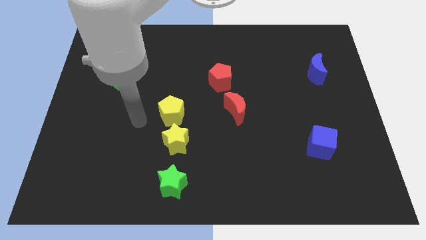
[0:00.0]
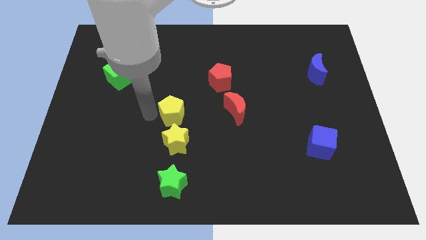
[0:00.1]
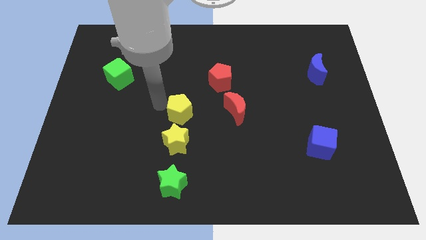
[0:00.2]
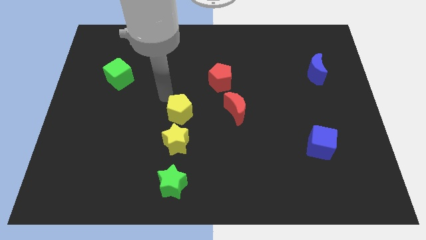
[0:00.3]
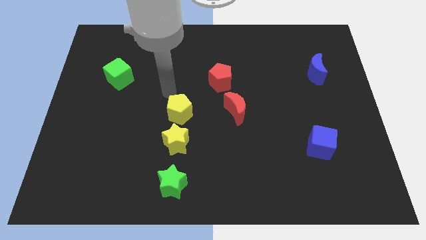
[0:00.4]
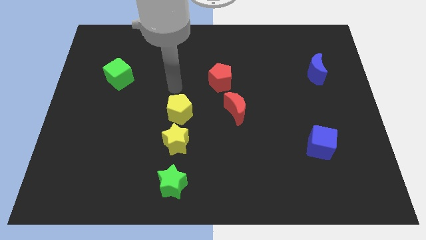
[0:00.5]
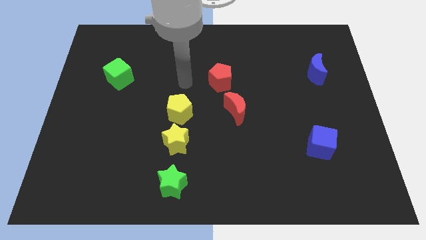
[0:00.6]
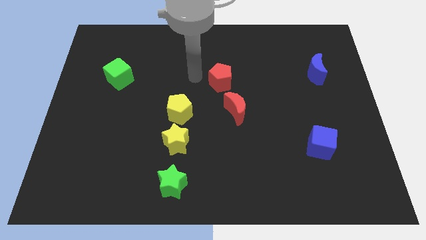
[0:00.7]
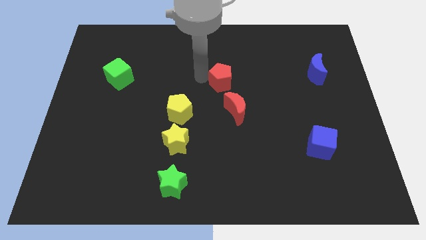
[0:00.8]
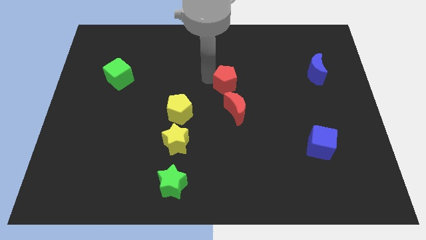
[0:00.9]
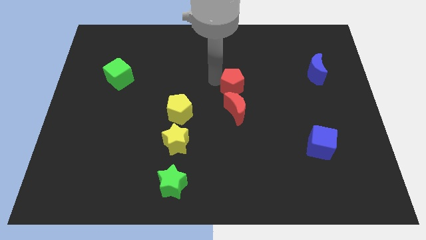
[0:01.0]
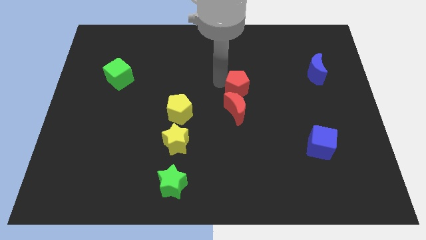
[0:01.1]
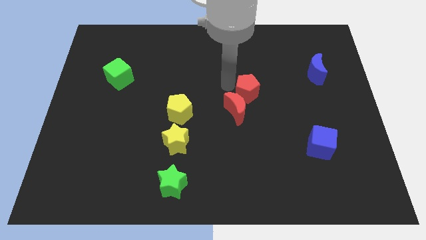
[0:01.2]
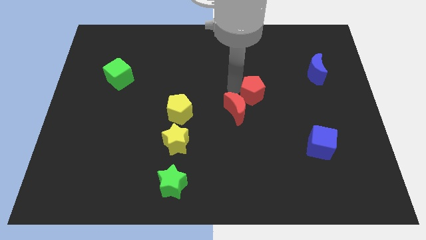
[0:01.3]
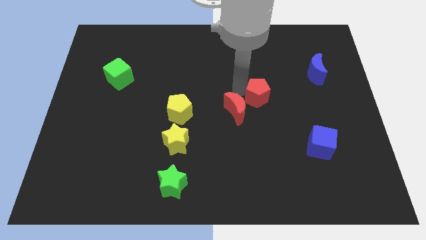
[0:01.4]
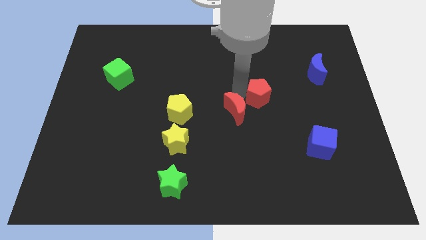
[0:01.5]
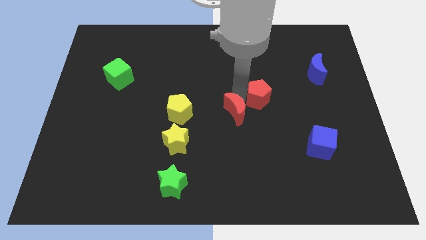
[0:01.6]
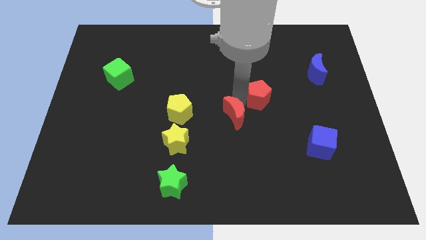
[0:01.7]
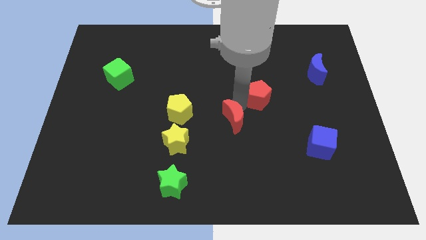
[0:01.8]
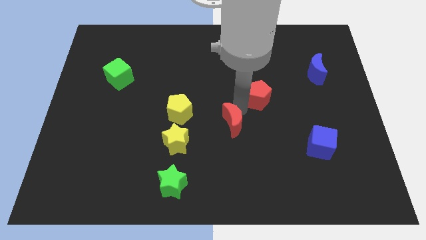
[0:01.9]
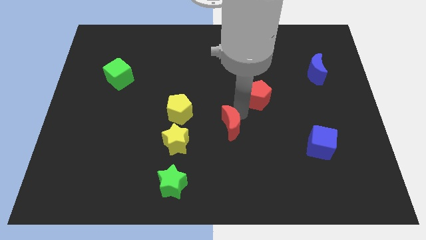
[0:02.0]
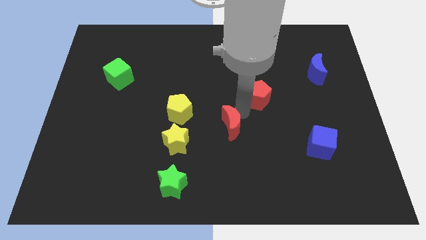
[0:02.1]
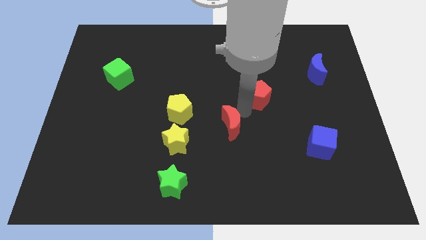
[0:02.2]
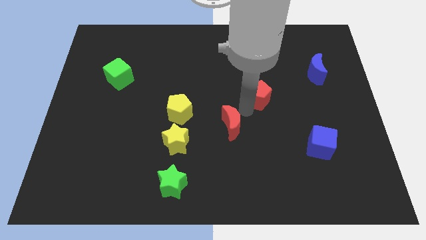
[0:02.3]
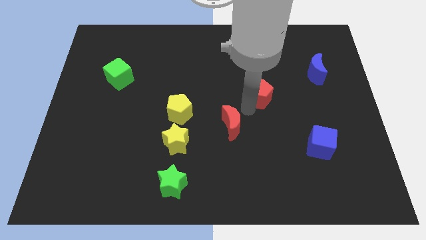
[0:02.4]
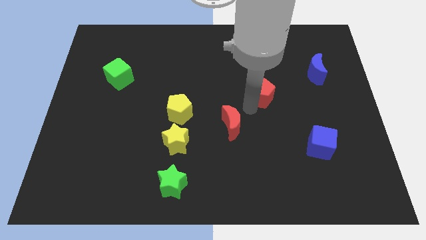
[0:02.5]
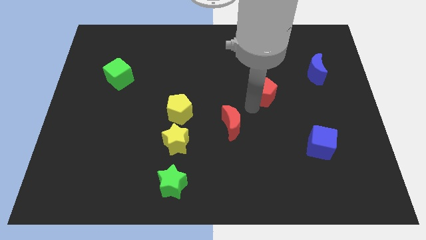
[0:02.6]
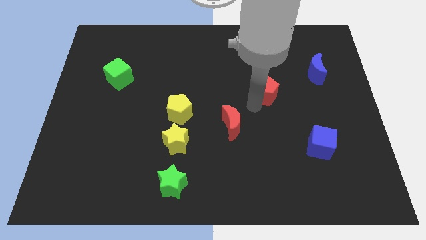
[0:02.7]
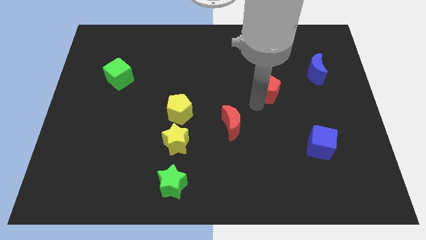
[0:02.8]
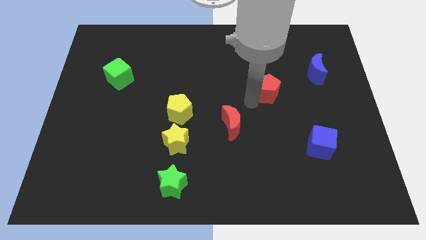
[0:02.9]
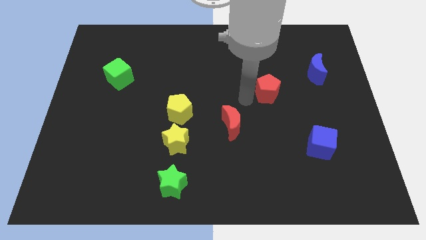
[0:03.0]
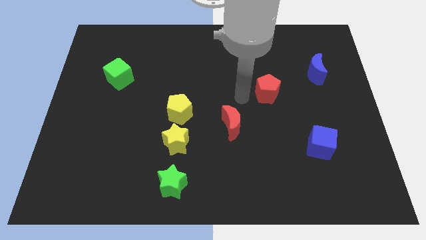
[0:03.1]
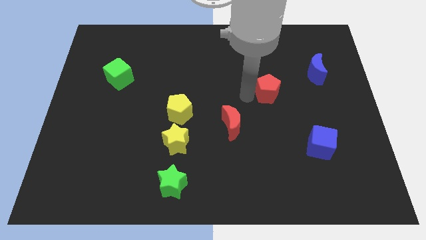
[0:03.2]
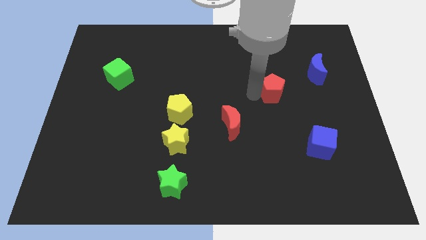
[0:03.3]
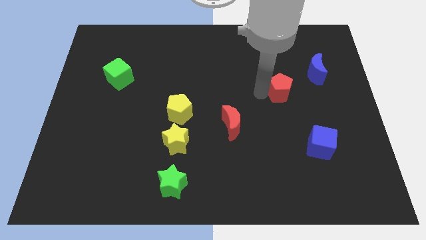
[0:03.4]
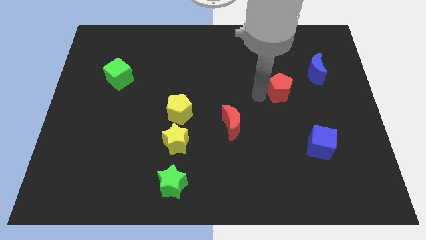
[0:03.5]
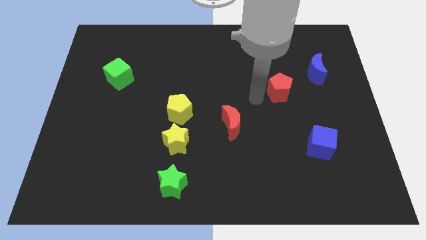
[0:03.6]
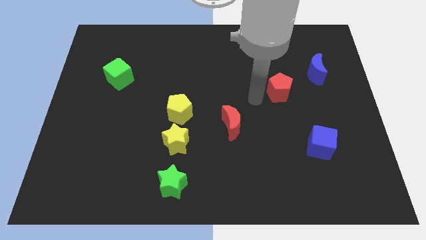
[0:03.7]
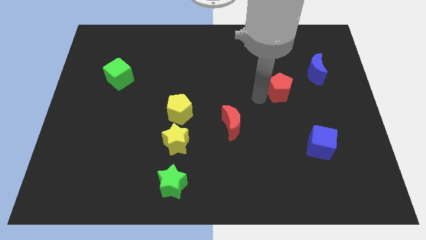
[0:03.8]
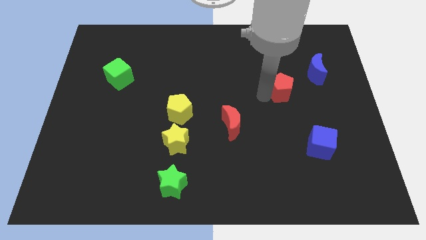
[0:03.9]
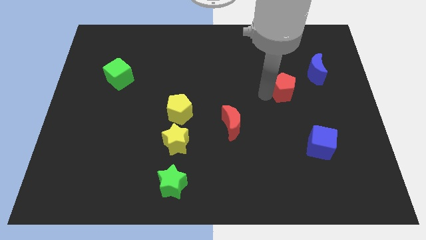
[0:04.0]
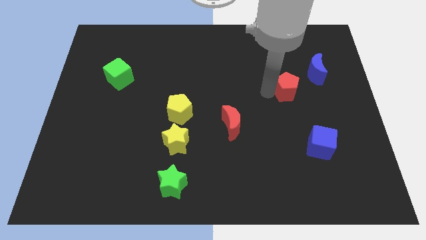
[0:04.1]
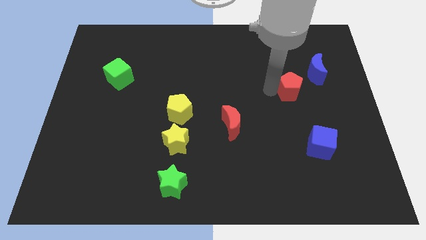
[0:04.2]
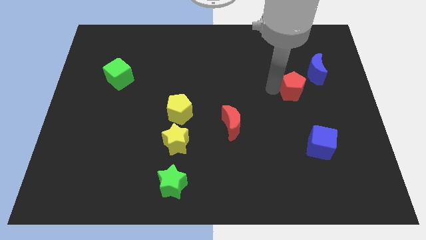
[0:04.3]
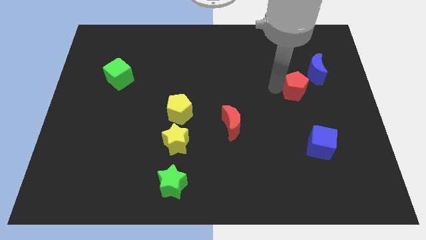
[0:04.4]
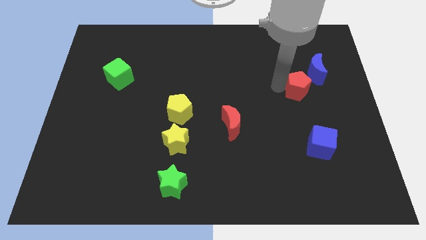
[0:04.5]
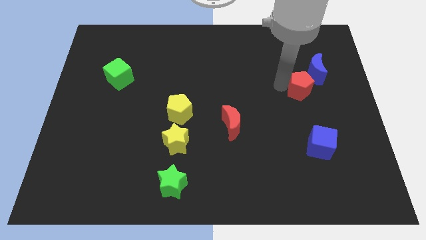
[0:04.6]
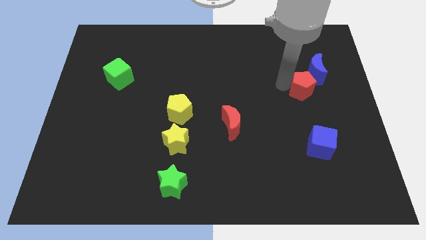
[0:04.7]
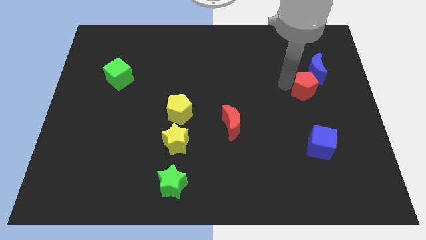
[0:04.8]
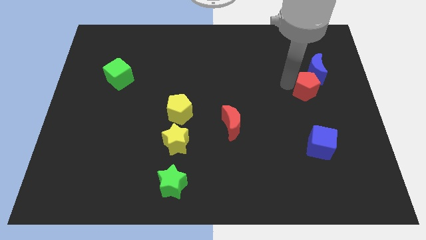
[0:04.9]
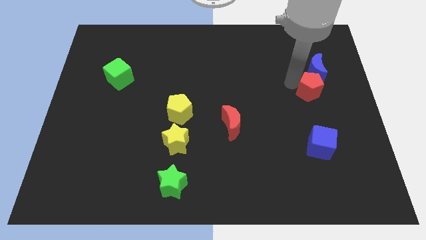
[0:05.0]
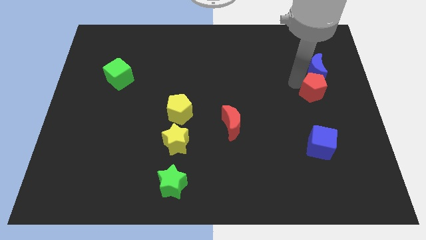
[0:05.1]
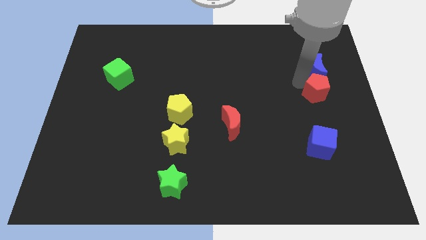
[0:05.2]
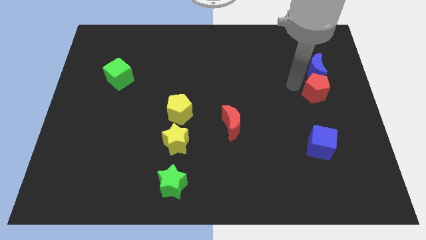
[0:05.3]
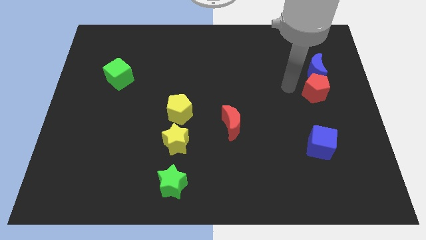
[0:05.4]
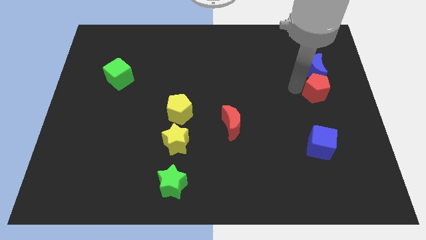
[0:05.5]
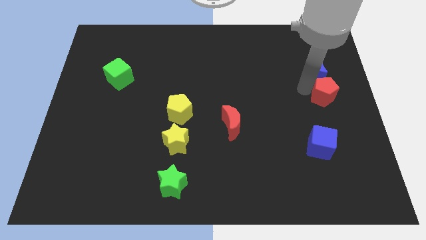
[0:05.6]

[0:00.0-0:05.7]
move the red pentagon to the right side

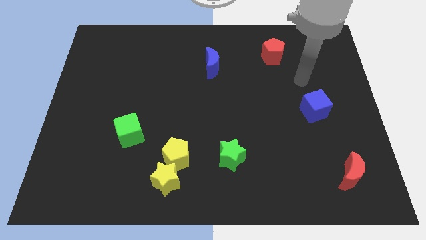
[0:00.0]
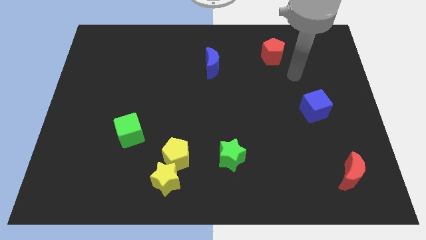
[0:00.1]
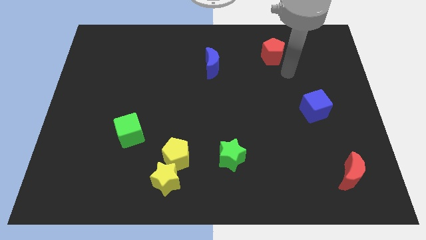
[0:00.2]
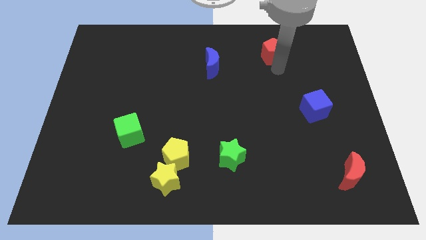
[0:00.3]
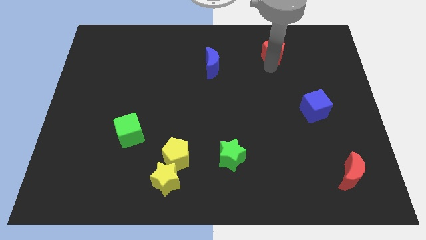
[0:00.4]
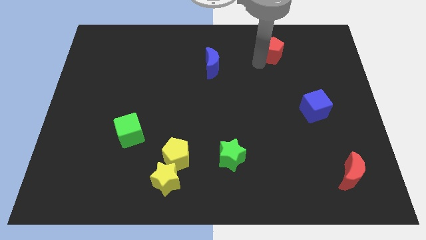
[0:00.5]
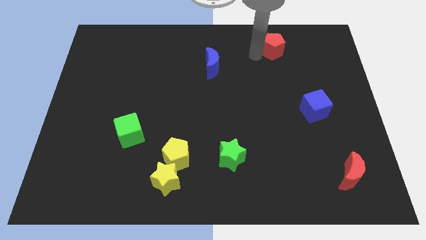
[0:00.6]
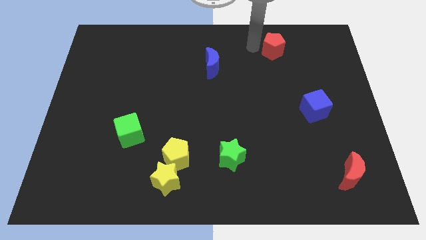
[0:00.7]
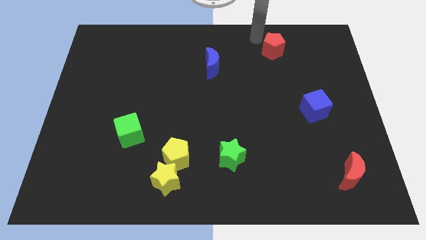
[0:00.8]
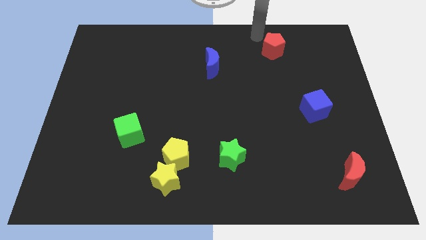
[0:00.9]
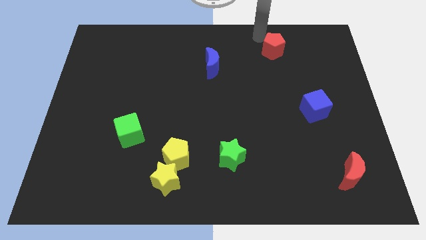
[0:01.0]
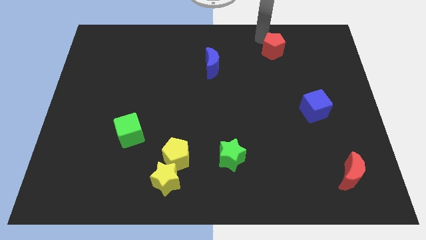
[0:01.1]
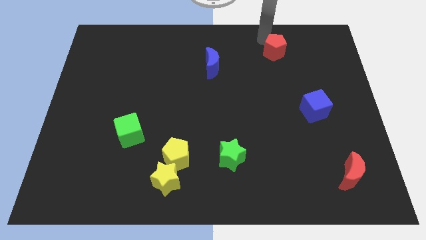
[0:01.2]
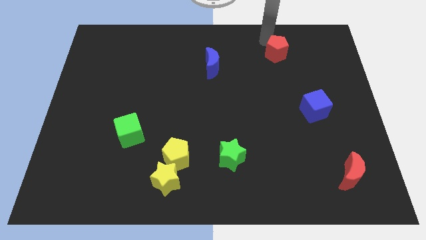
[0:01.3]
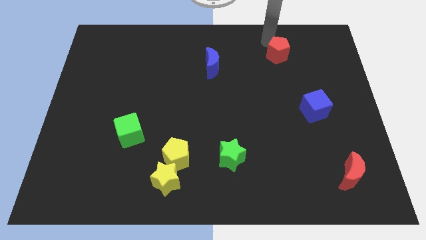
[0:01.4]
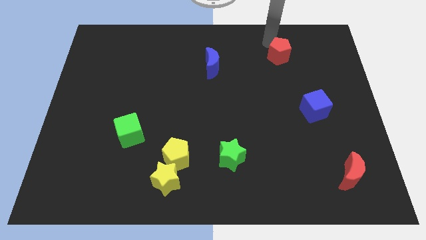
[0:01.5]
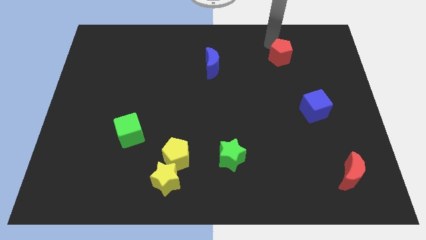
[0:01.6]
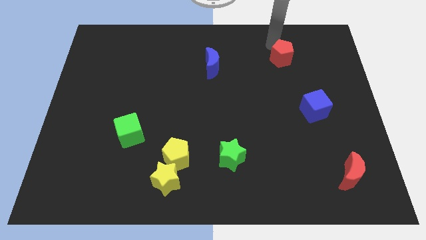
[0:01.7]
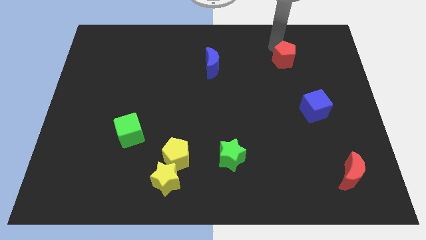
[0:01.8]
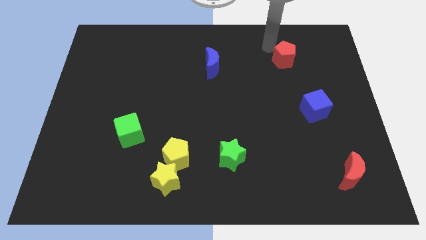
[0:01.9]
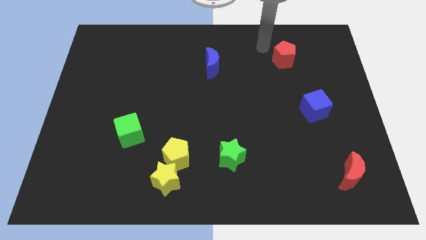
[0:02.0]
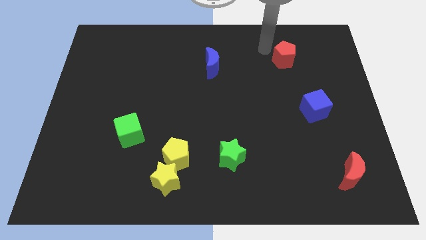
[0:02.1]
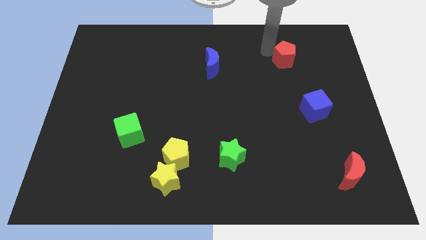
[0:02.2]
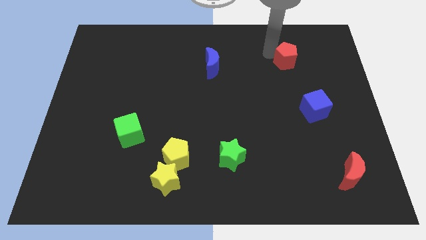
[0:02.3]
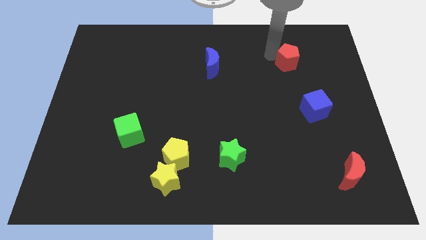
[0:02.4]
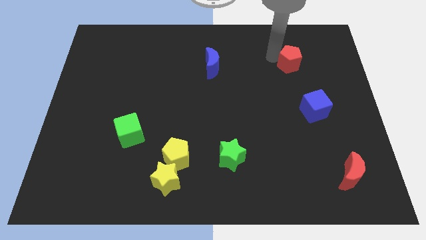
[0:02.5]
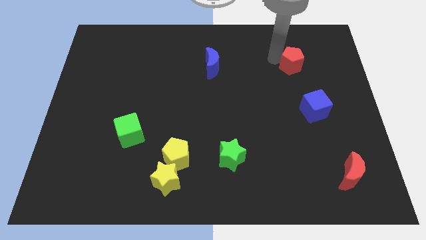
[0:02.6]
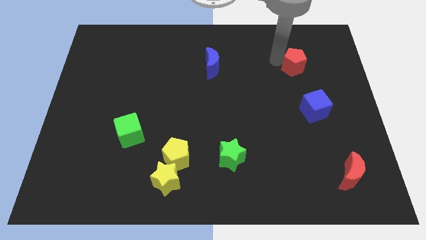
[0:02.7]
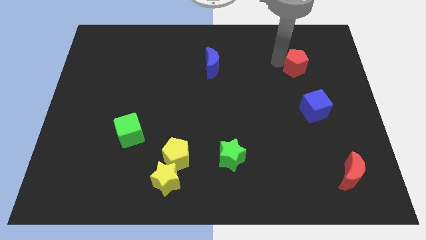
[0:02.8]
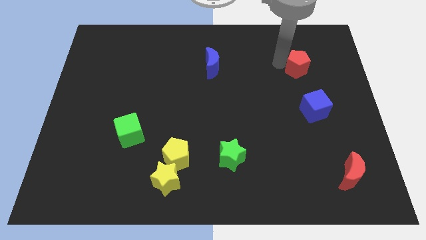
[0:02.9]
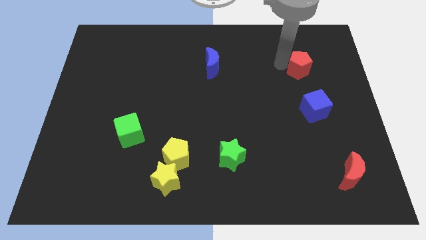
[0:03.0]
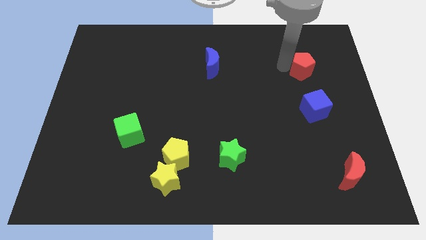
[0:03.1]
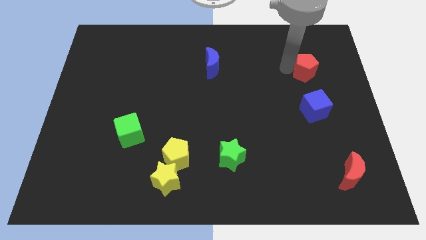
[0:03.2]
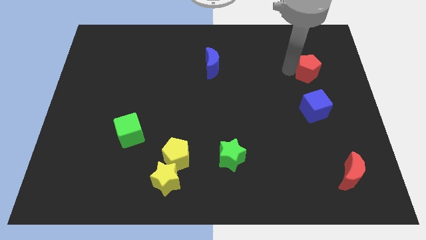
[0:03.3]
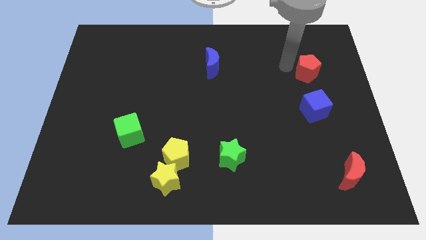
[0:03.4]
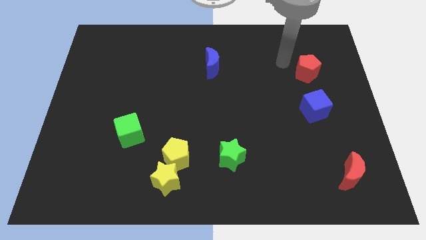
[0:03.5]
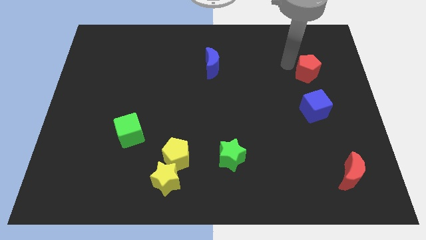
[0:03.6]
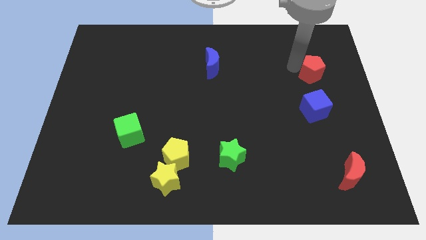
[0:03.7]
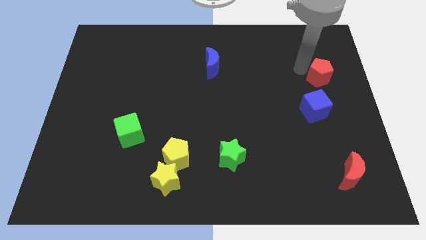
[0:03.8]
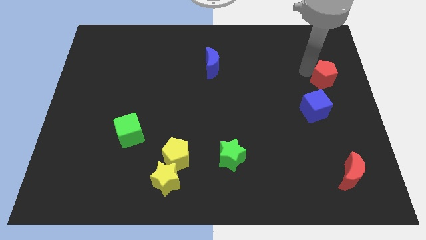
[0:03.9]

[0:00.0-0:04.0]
put the red pentagon to the right side
